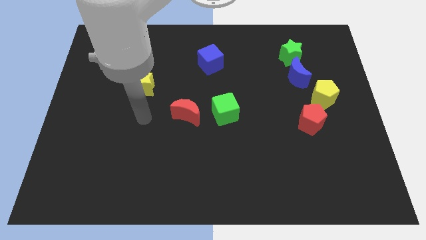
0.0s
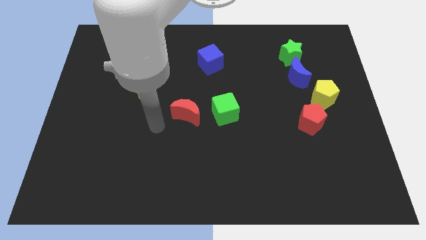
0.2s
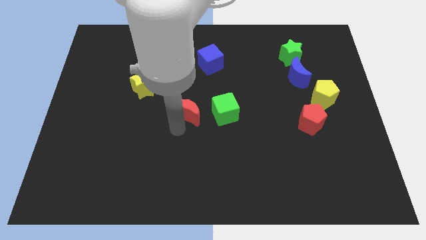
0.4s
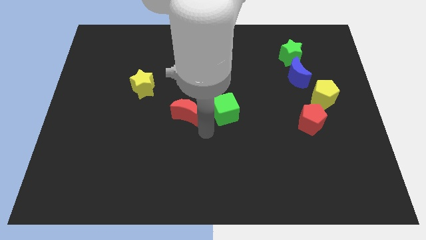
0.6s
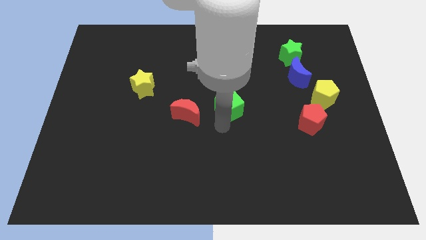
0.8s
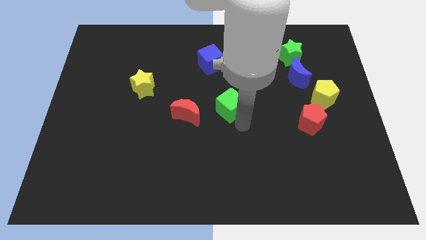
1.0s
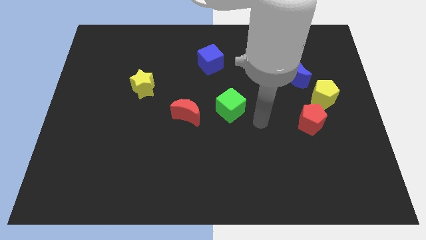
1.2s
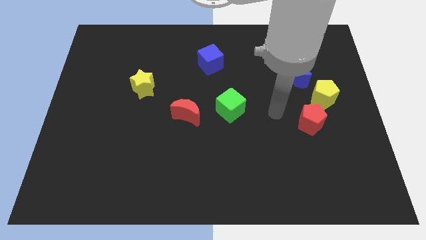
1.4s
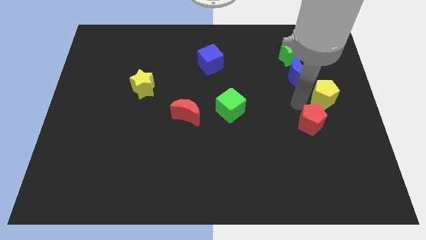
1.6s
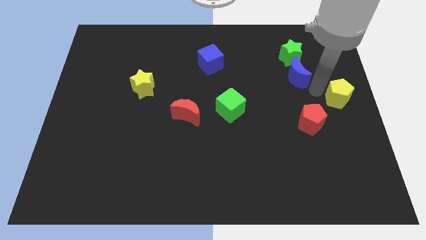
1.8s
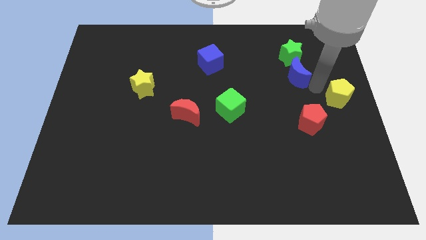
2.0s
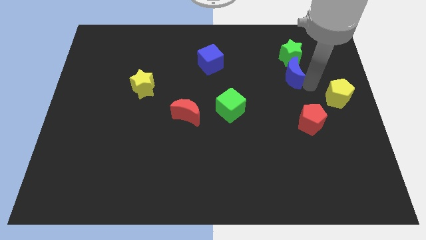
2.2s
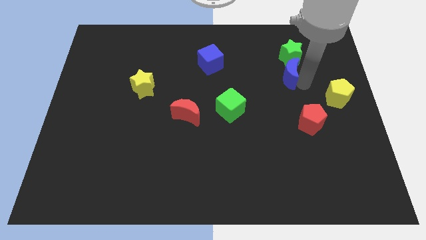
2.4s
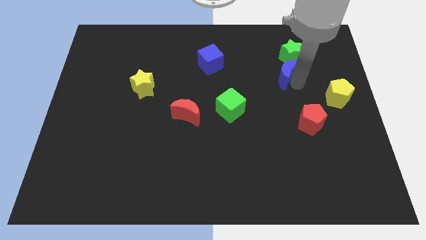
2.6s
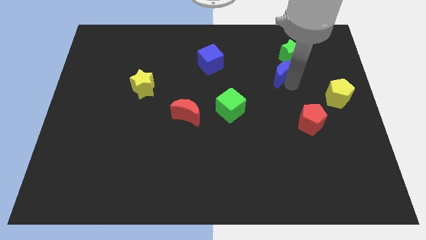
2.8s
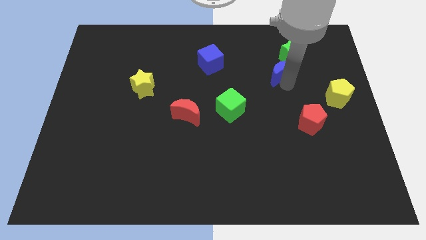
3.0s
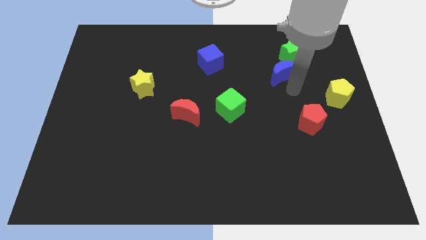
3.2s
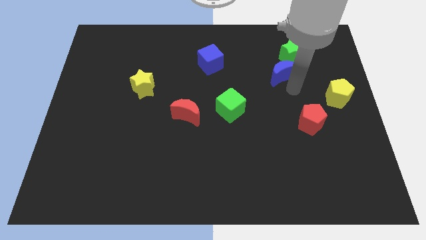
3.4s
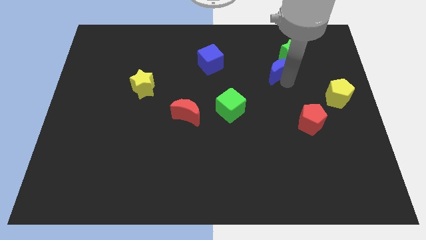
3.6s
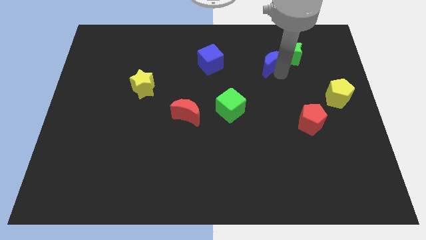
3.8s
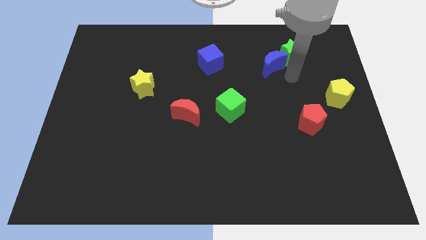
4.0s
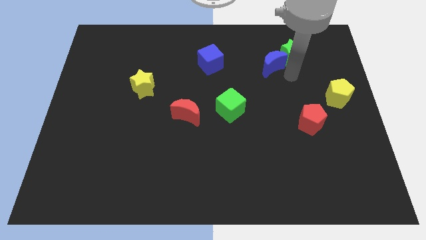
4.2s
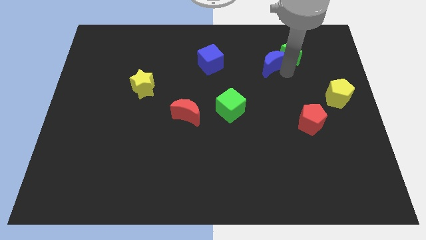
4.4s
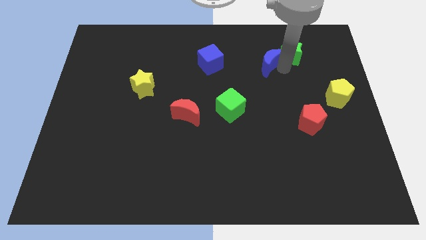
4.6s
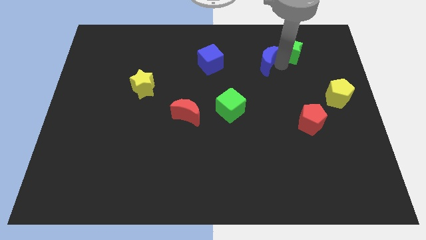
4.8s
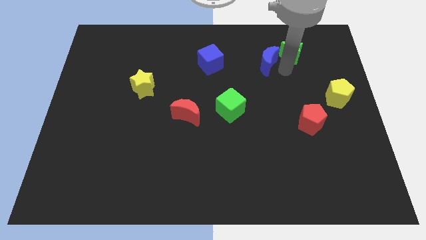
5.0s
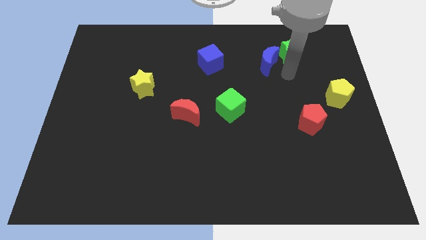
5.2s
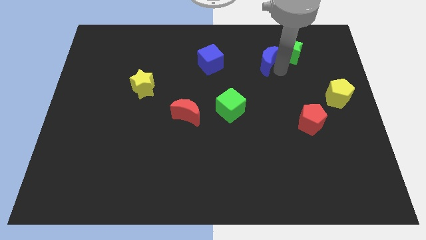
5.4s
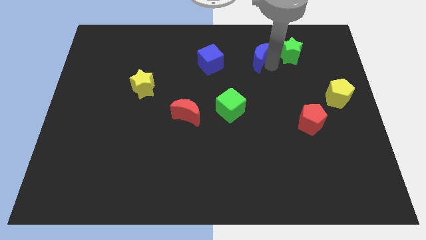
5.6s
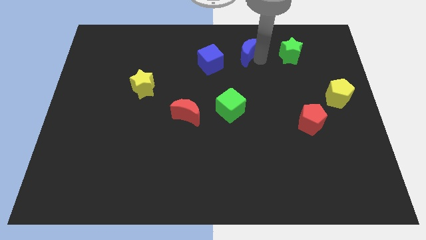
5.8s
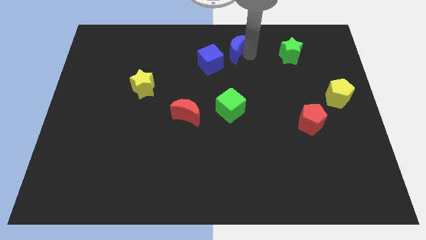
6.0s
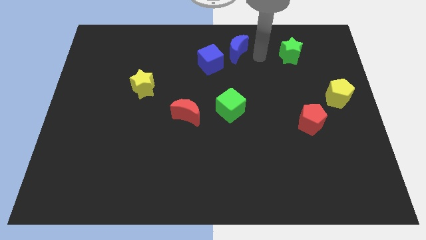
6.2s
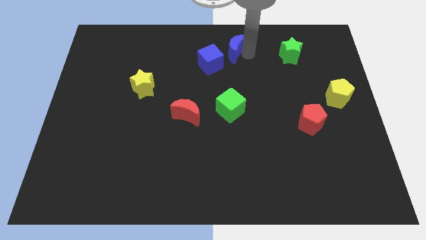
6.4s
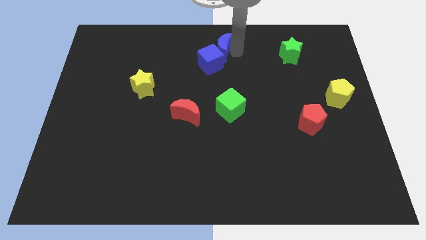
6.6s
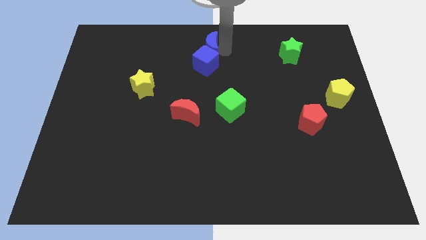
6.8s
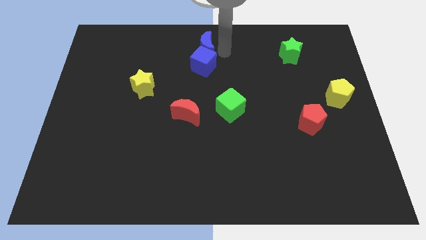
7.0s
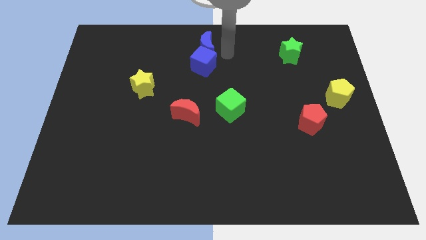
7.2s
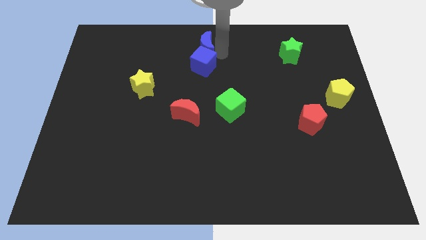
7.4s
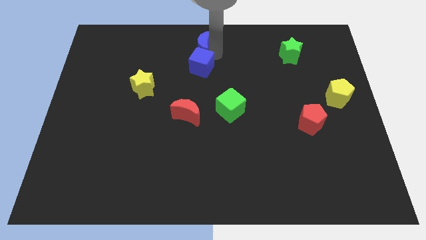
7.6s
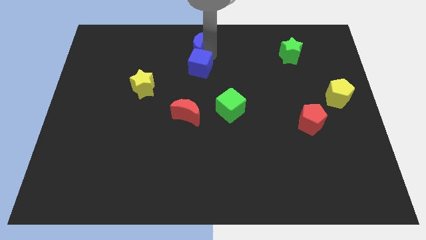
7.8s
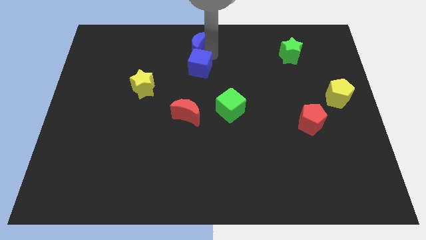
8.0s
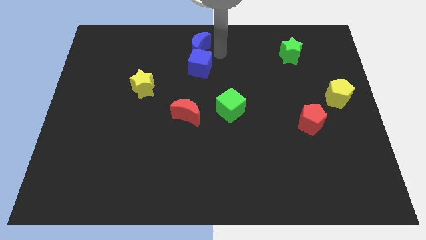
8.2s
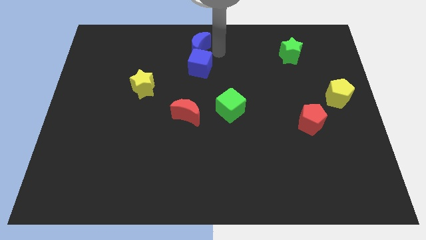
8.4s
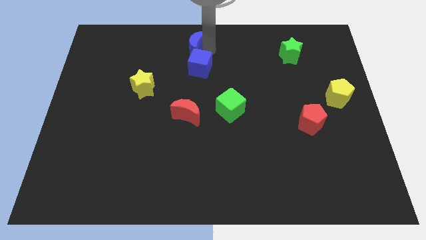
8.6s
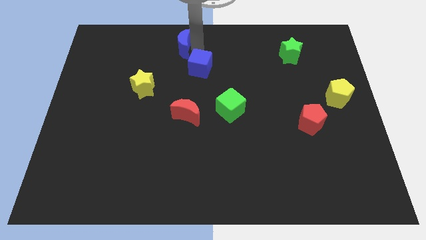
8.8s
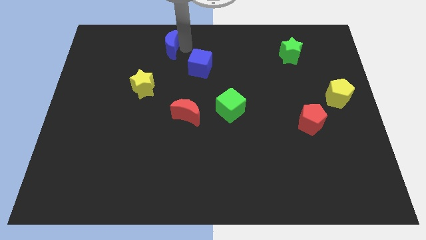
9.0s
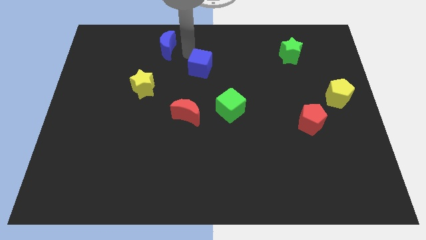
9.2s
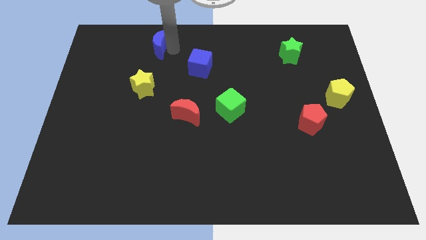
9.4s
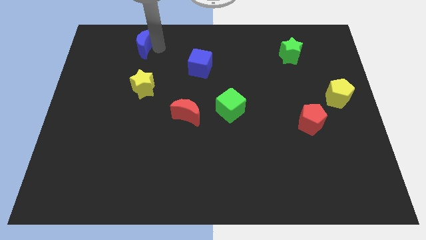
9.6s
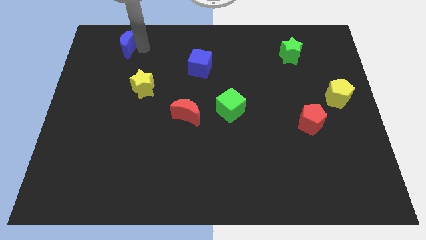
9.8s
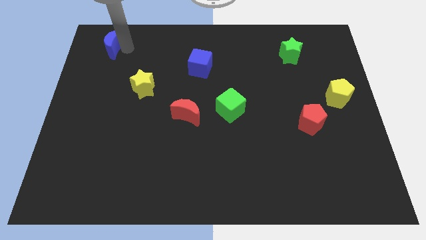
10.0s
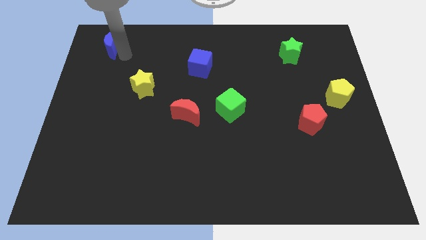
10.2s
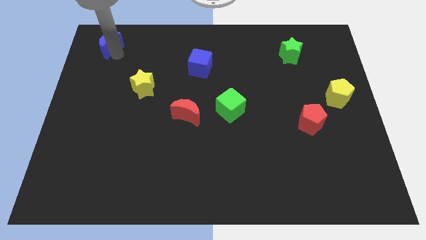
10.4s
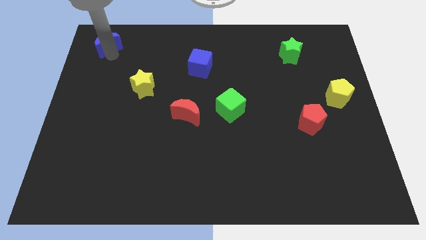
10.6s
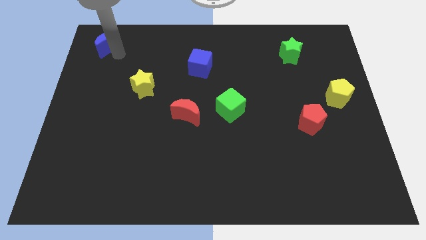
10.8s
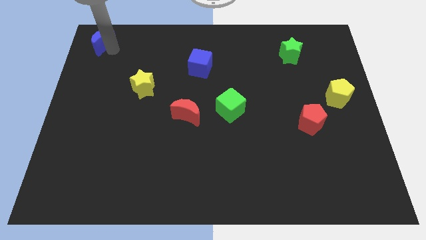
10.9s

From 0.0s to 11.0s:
put the blue moon to the top left
